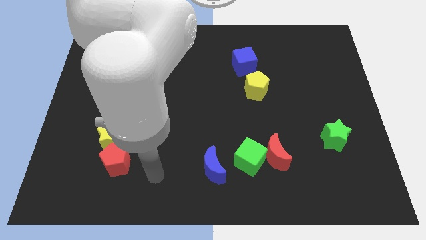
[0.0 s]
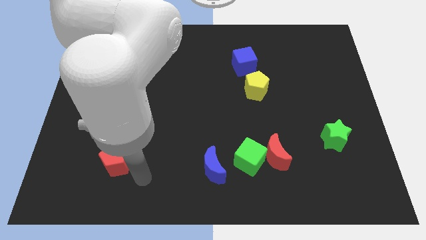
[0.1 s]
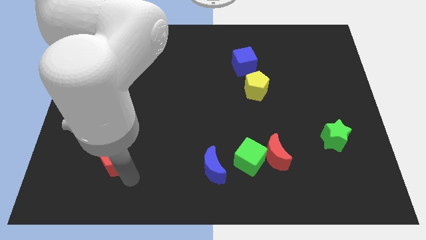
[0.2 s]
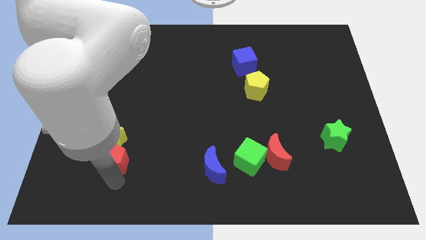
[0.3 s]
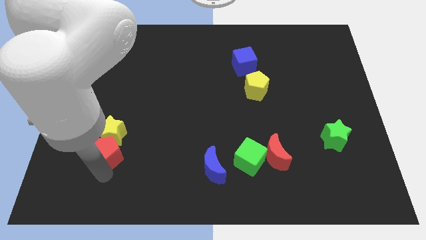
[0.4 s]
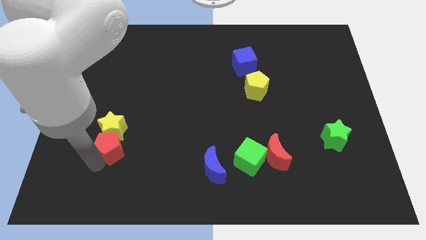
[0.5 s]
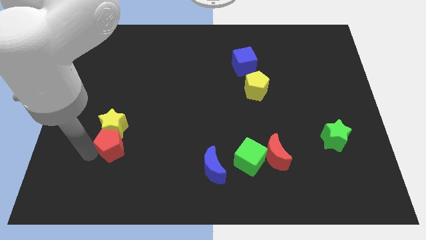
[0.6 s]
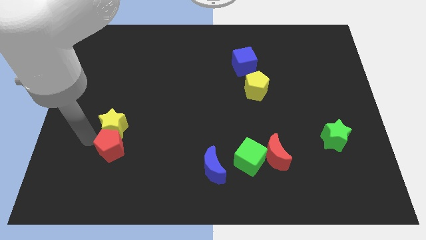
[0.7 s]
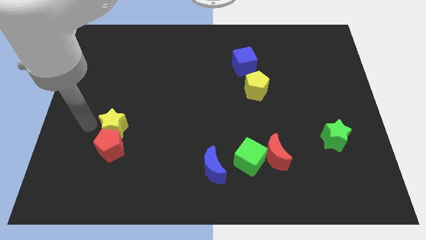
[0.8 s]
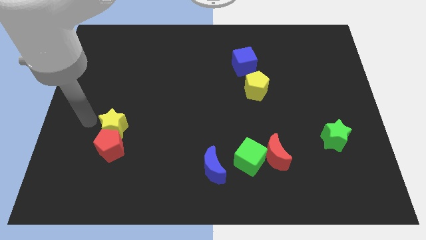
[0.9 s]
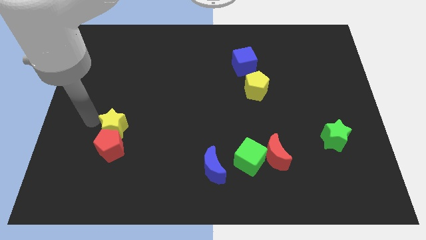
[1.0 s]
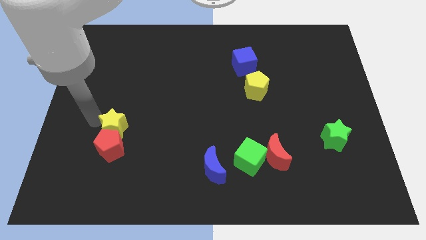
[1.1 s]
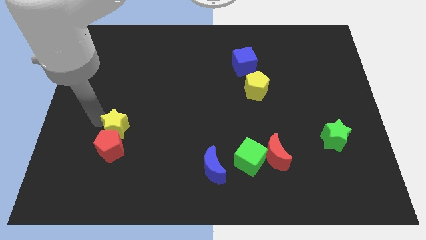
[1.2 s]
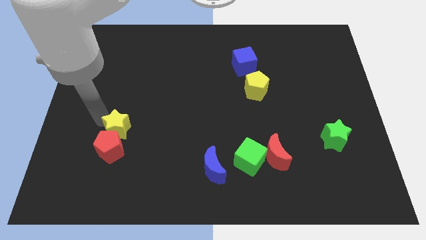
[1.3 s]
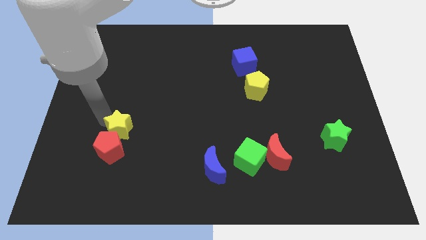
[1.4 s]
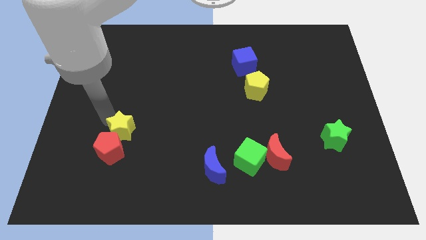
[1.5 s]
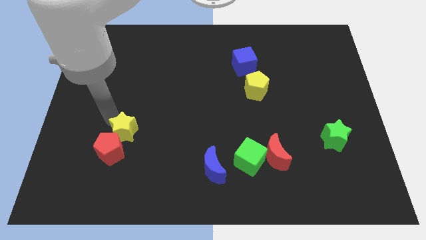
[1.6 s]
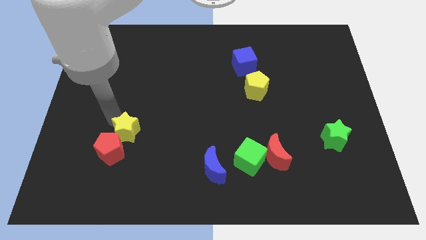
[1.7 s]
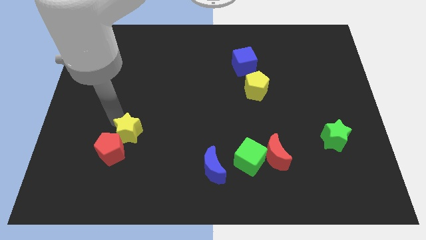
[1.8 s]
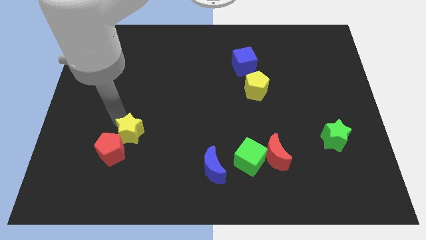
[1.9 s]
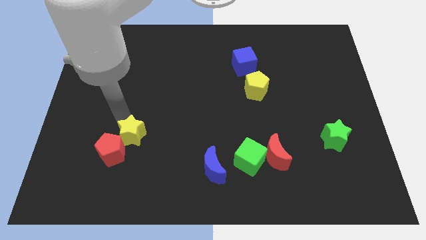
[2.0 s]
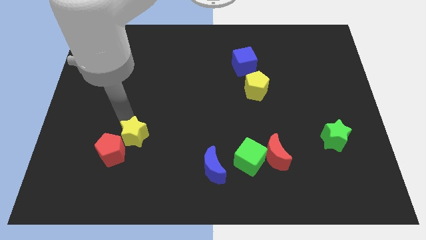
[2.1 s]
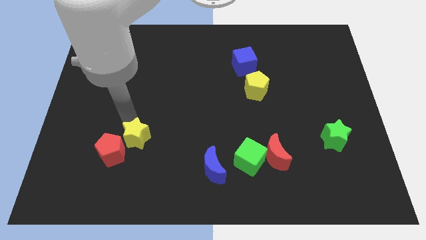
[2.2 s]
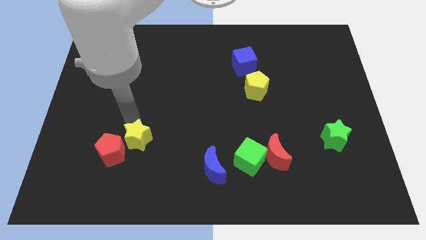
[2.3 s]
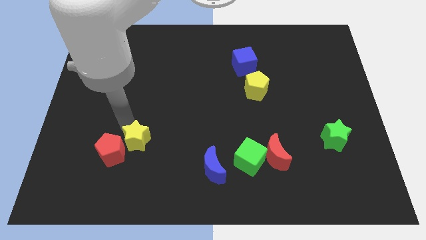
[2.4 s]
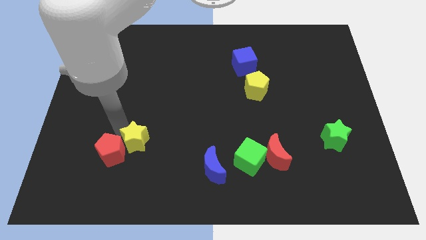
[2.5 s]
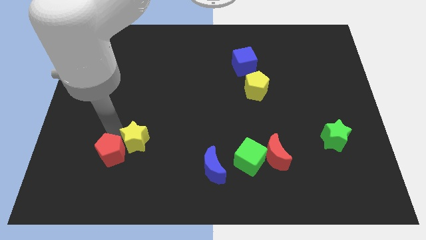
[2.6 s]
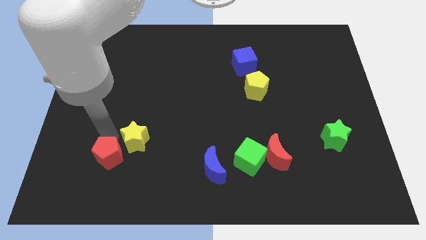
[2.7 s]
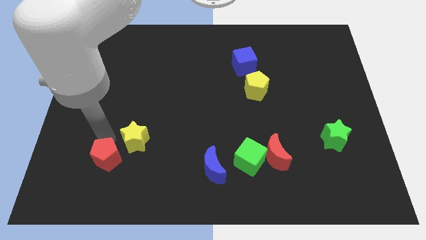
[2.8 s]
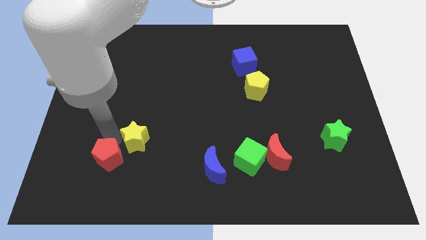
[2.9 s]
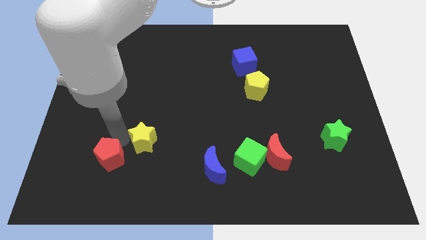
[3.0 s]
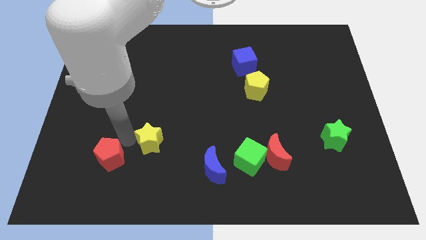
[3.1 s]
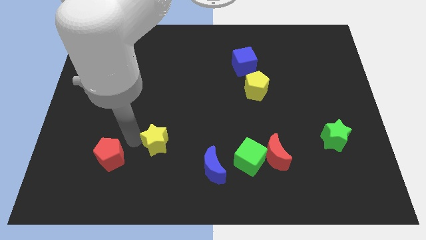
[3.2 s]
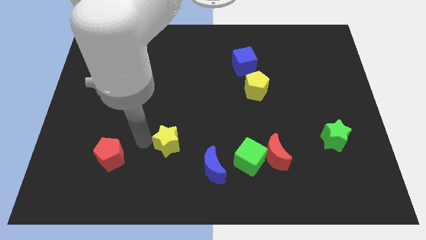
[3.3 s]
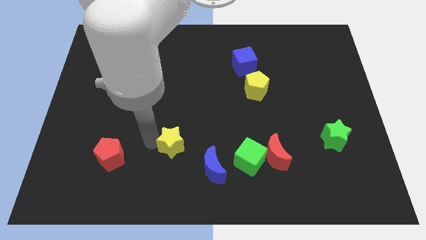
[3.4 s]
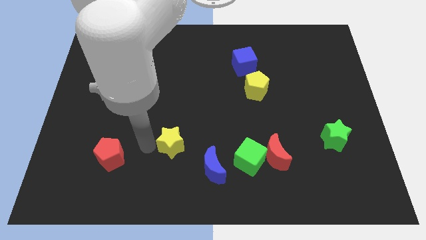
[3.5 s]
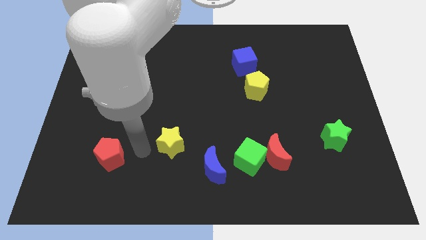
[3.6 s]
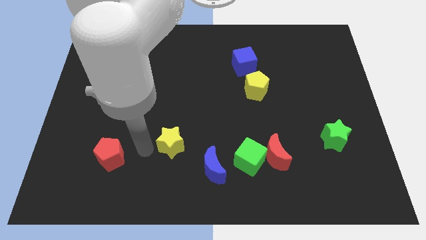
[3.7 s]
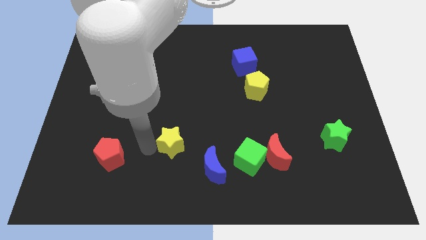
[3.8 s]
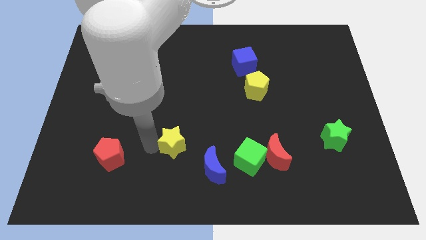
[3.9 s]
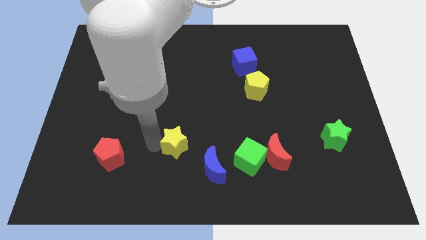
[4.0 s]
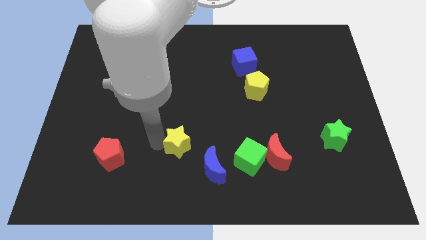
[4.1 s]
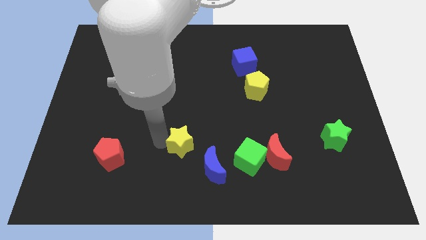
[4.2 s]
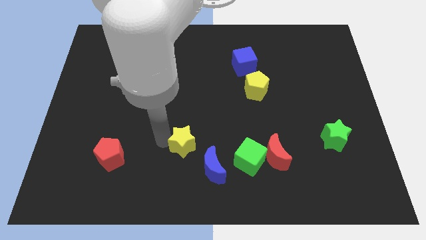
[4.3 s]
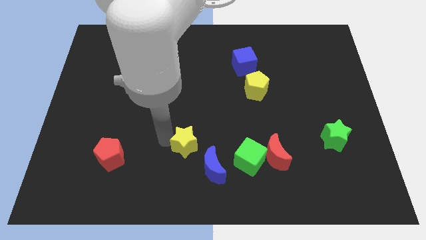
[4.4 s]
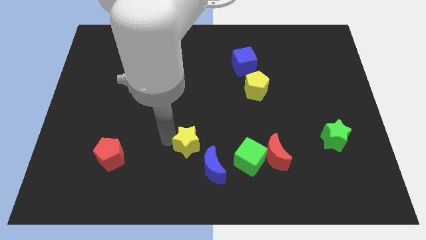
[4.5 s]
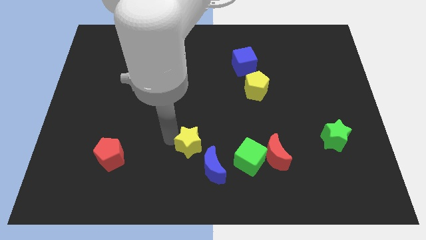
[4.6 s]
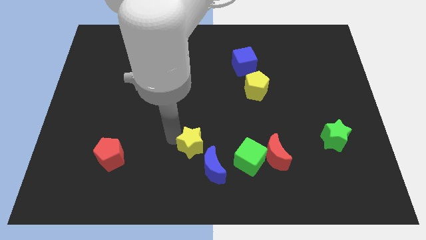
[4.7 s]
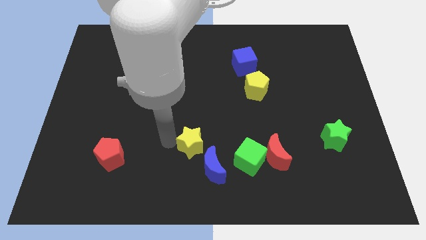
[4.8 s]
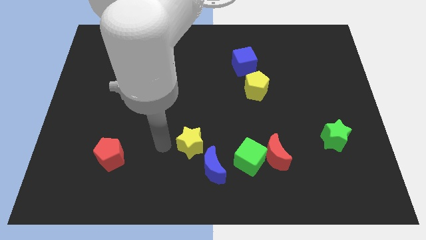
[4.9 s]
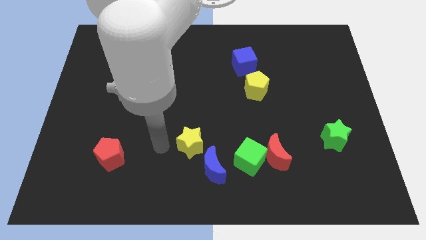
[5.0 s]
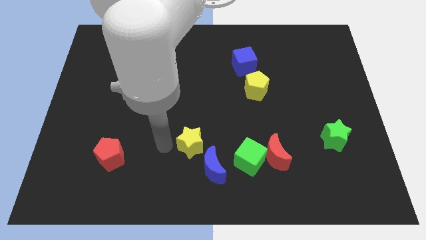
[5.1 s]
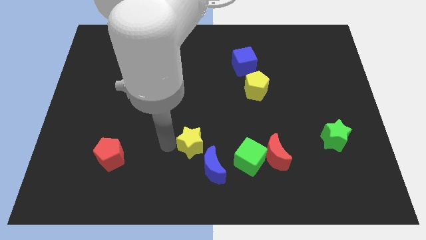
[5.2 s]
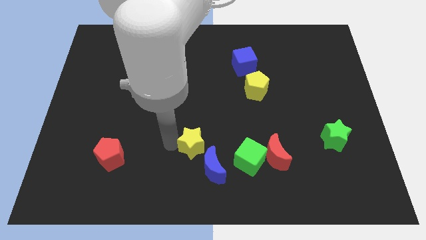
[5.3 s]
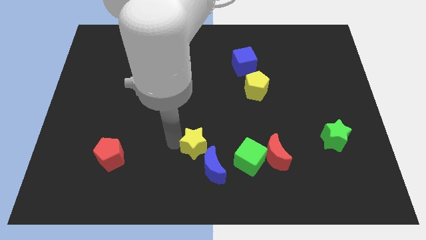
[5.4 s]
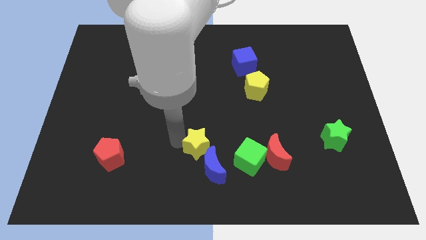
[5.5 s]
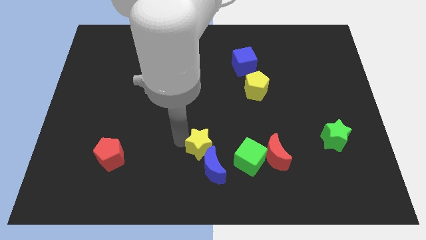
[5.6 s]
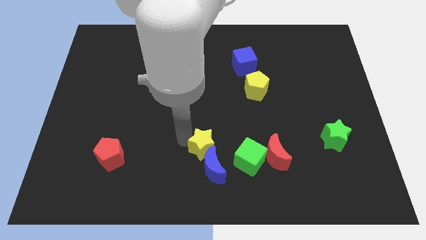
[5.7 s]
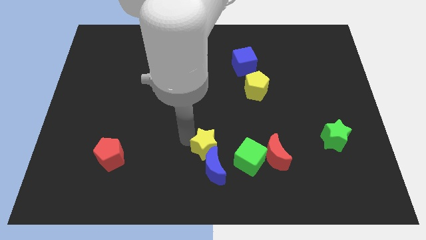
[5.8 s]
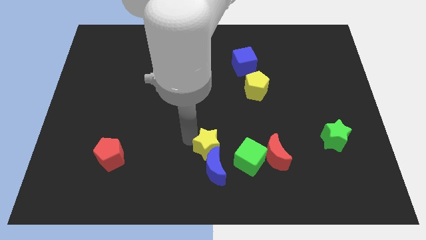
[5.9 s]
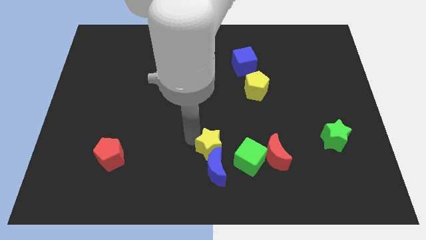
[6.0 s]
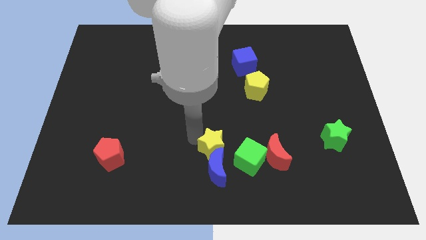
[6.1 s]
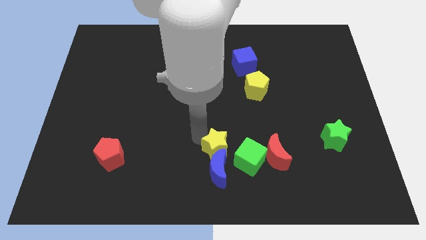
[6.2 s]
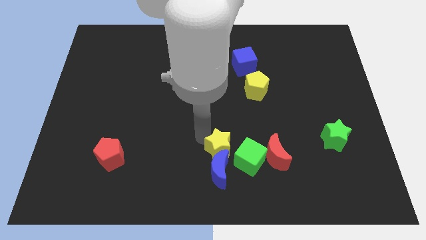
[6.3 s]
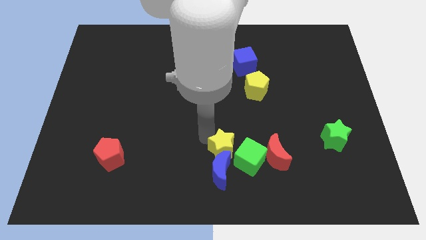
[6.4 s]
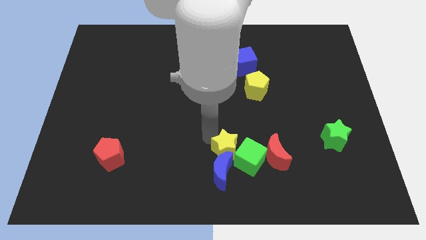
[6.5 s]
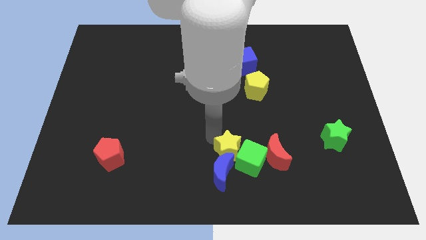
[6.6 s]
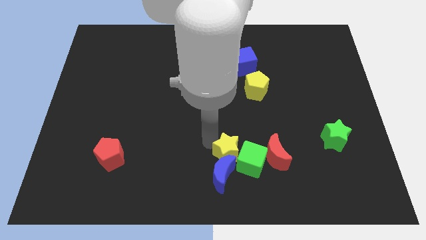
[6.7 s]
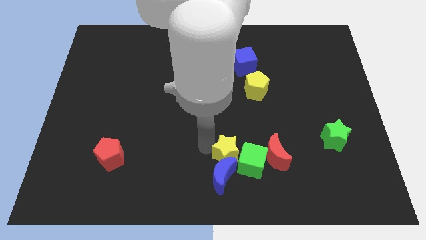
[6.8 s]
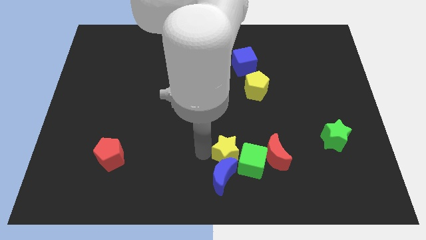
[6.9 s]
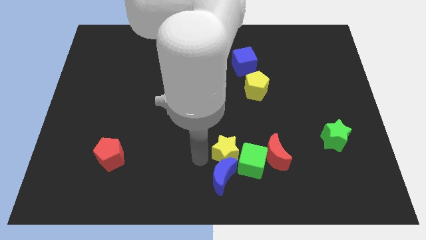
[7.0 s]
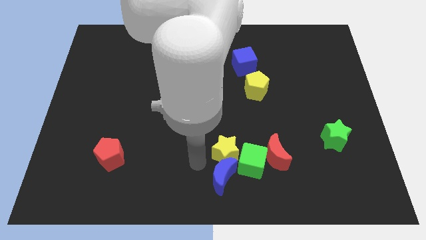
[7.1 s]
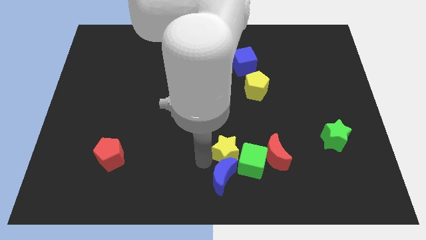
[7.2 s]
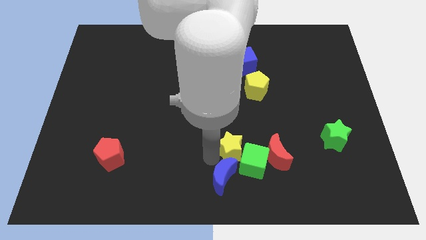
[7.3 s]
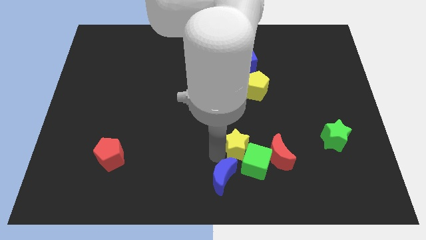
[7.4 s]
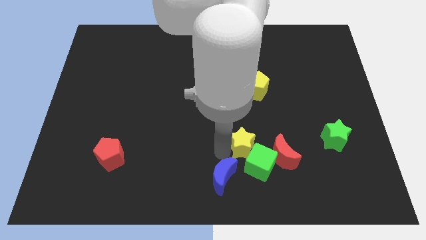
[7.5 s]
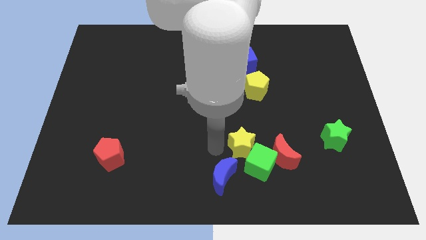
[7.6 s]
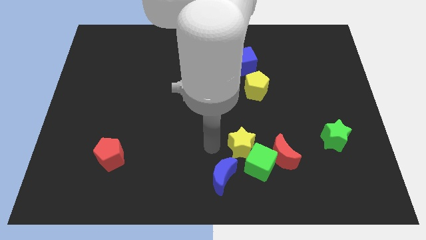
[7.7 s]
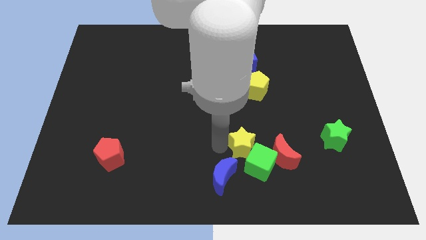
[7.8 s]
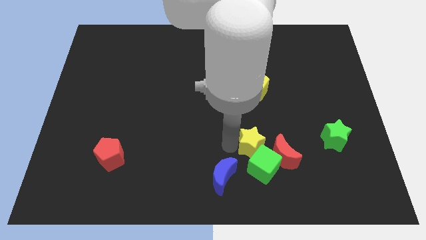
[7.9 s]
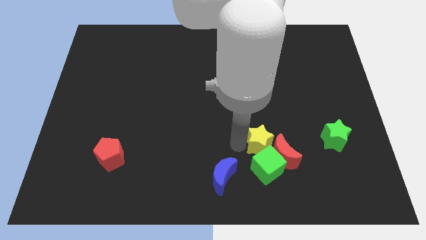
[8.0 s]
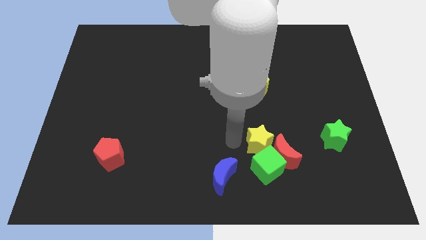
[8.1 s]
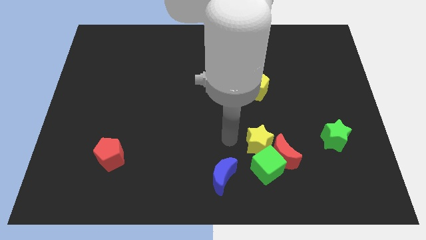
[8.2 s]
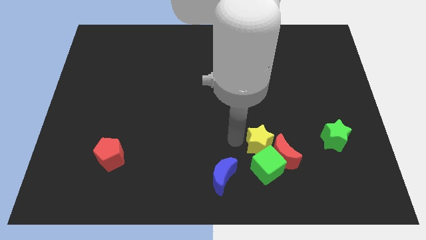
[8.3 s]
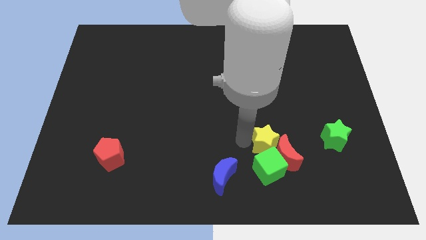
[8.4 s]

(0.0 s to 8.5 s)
slide the yellow star diagonally up and to the right of the green cube
